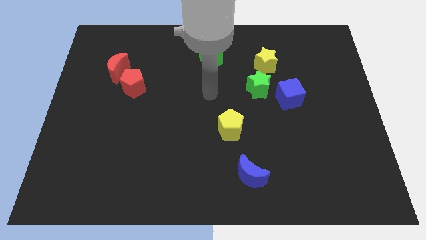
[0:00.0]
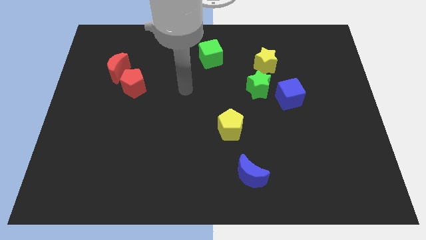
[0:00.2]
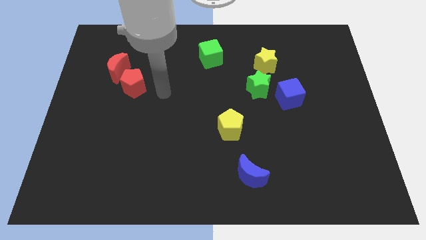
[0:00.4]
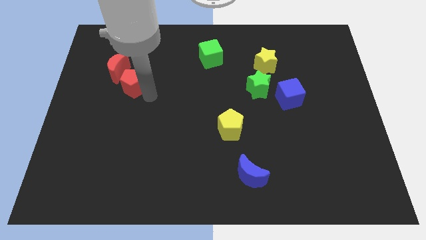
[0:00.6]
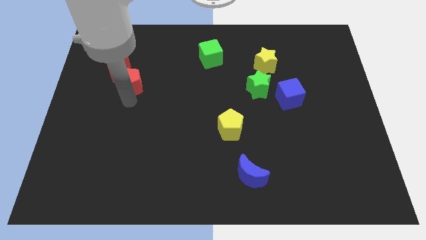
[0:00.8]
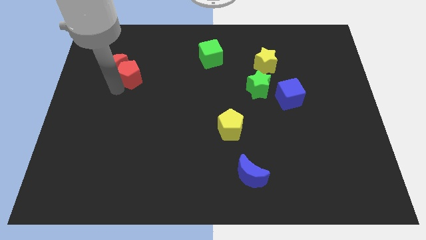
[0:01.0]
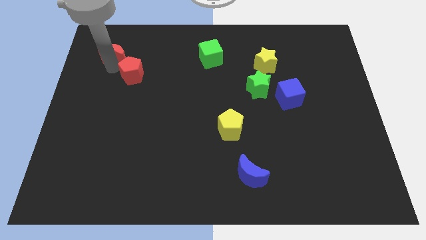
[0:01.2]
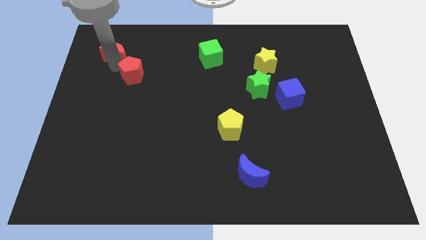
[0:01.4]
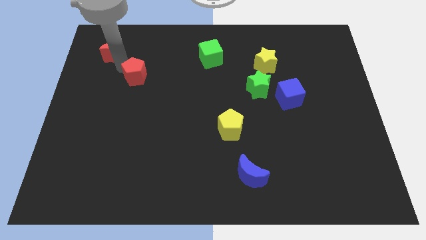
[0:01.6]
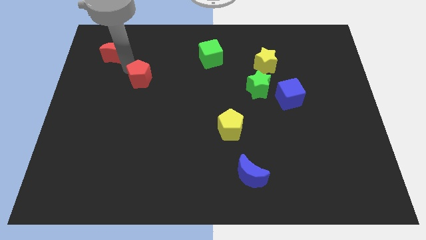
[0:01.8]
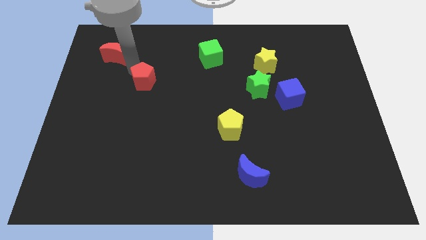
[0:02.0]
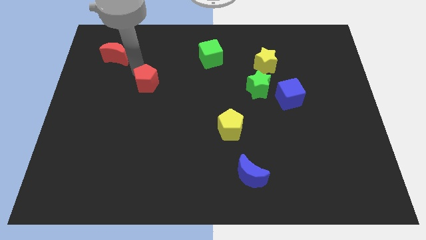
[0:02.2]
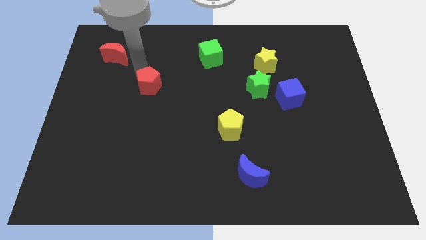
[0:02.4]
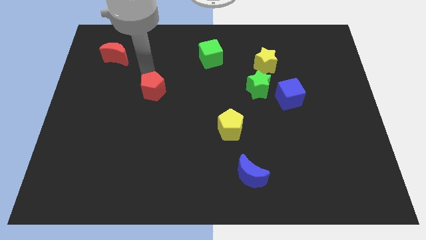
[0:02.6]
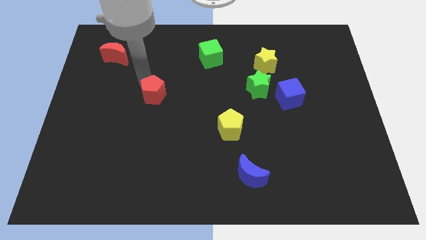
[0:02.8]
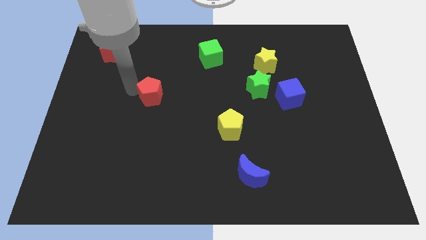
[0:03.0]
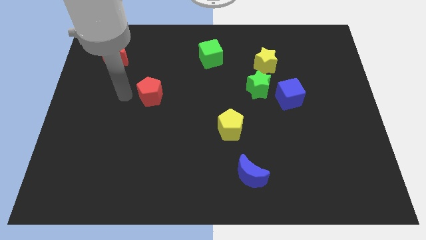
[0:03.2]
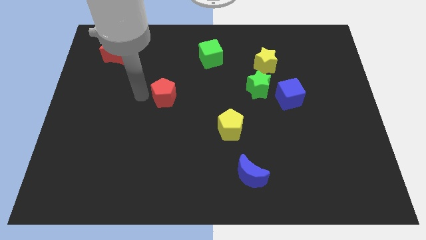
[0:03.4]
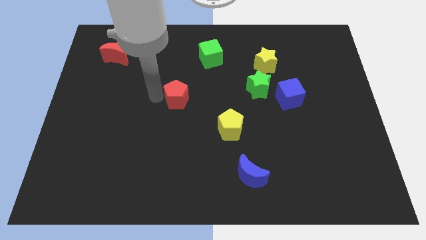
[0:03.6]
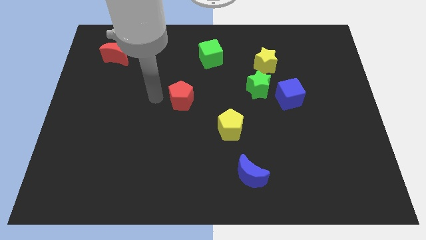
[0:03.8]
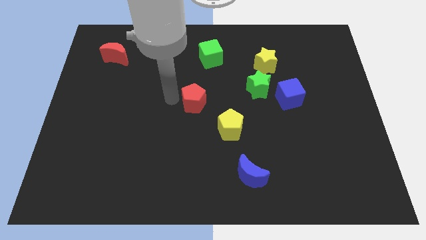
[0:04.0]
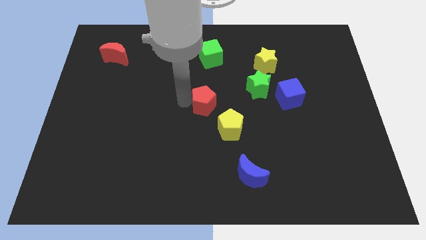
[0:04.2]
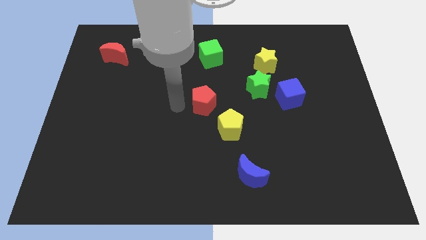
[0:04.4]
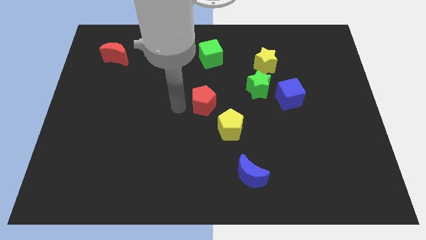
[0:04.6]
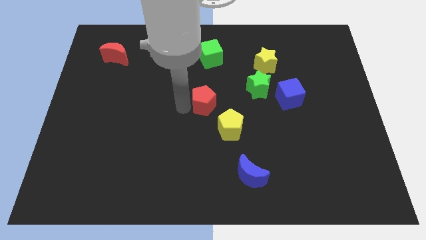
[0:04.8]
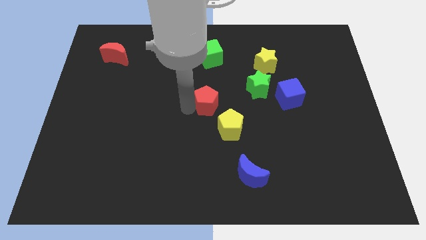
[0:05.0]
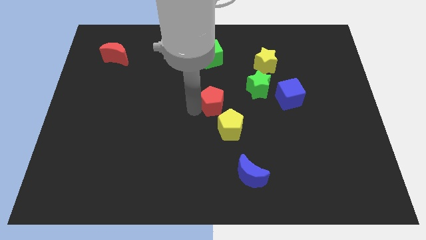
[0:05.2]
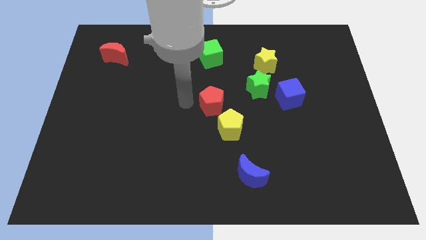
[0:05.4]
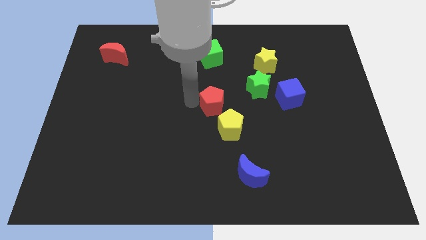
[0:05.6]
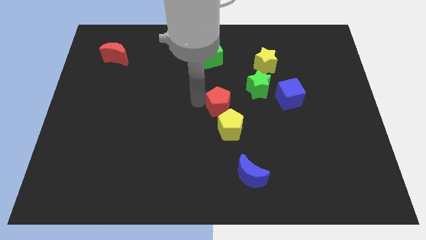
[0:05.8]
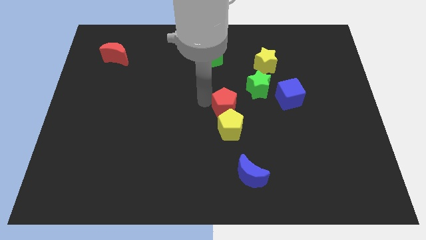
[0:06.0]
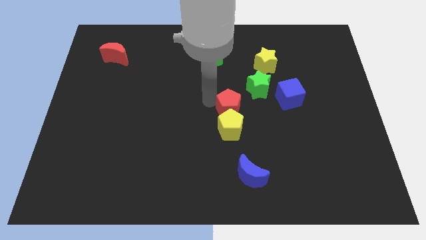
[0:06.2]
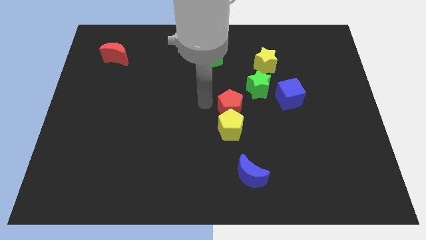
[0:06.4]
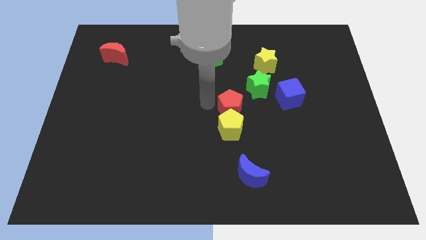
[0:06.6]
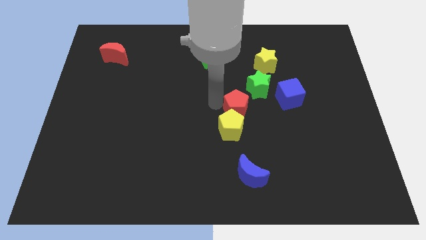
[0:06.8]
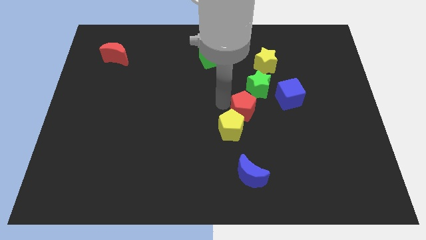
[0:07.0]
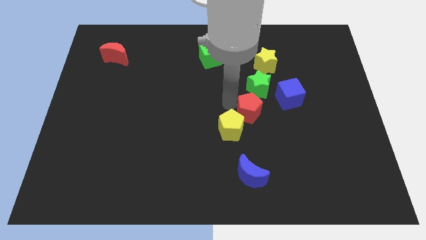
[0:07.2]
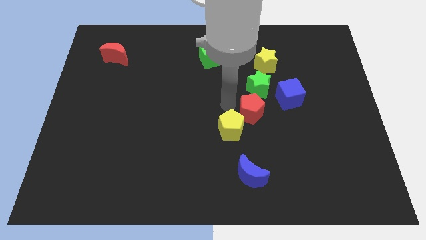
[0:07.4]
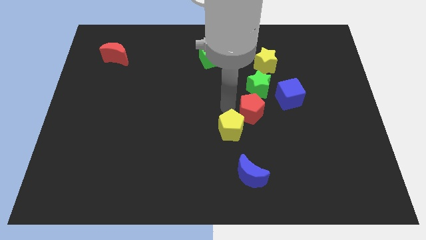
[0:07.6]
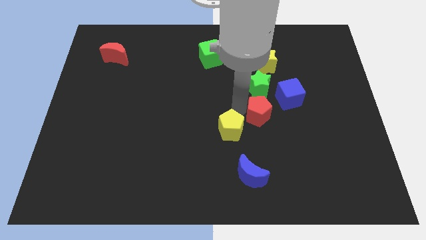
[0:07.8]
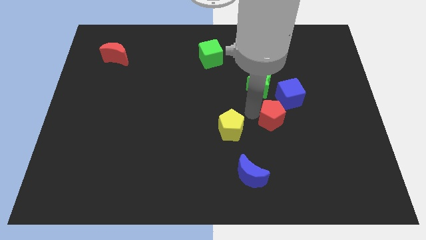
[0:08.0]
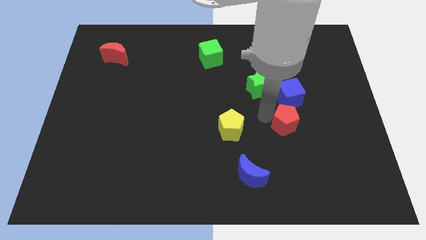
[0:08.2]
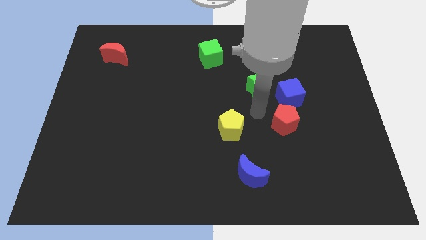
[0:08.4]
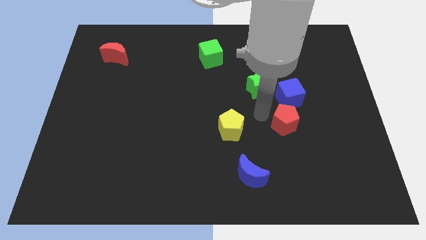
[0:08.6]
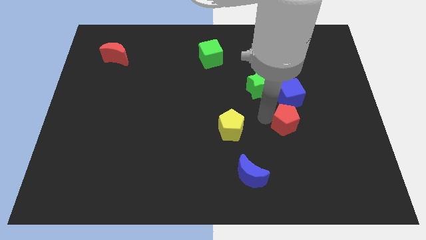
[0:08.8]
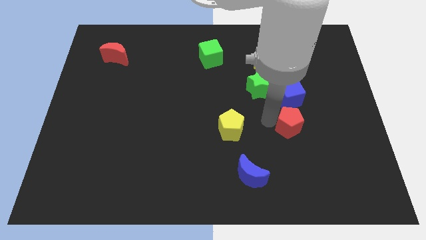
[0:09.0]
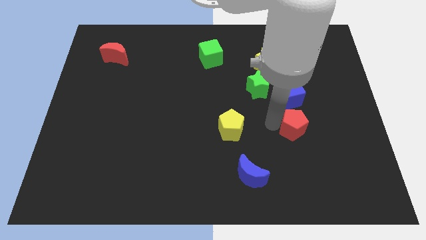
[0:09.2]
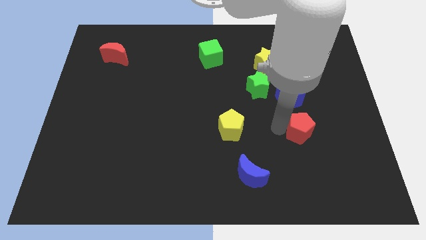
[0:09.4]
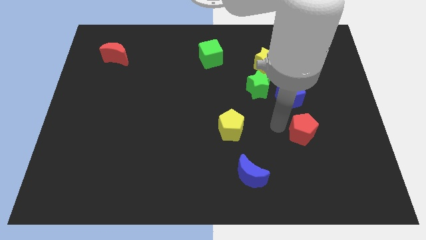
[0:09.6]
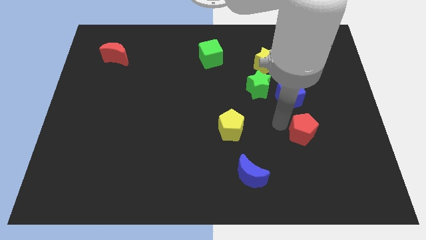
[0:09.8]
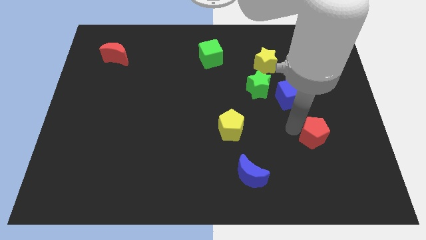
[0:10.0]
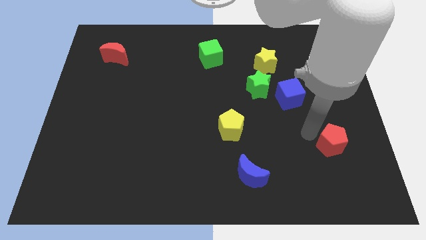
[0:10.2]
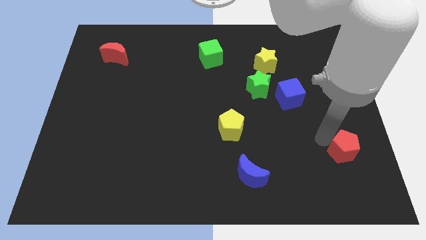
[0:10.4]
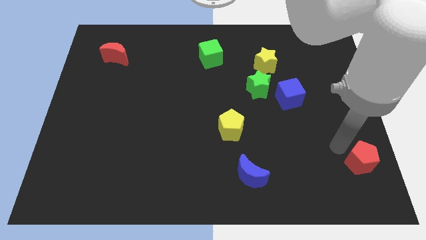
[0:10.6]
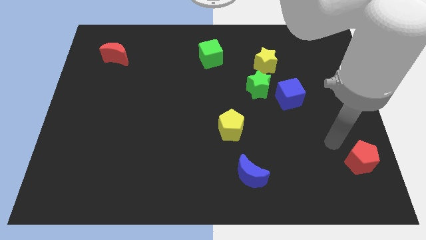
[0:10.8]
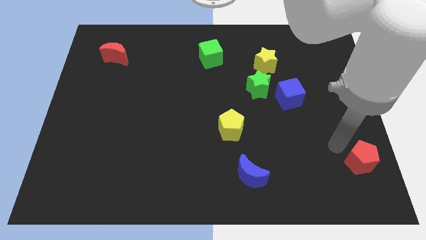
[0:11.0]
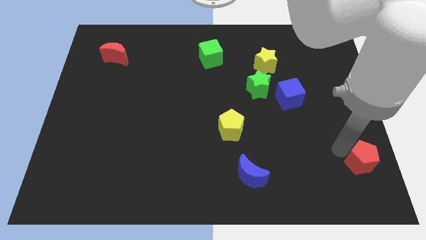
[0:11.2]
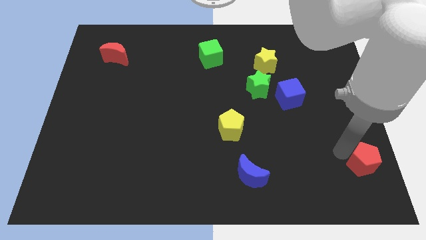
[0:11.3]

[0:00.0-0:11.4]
put the red pentagon to the lower right corner

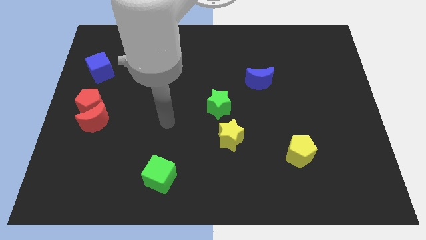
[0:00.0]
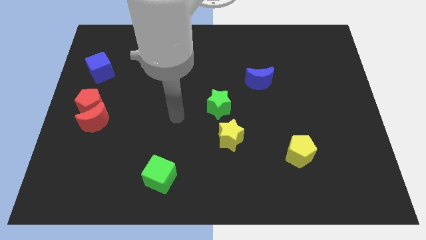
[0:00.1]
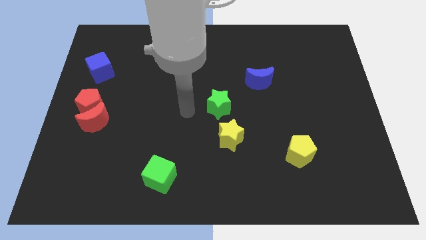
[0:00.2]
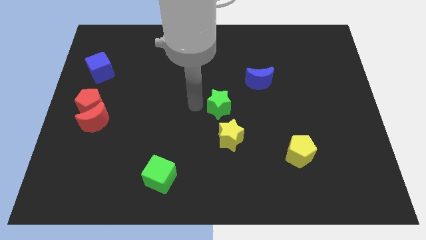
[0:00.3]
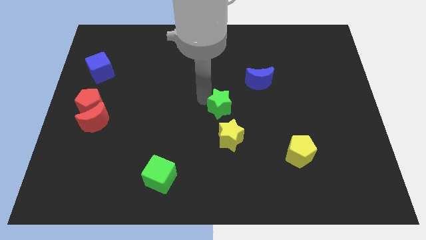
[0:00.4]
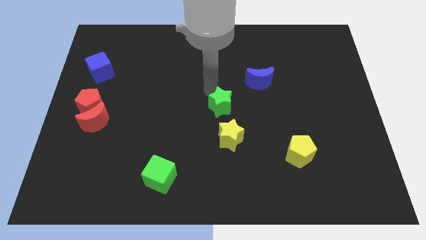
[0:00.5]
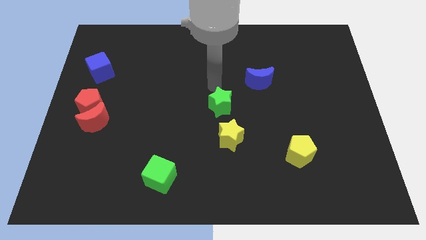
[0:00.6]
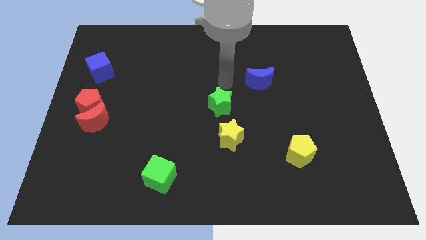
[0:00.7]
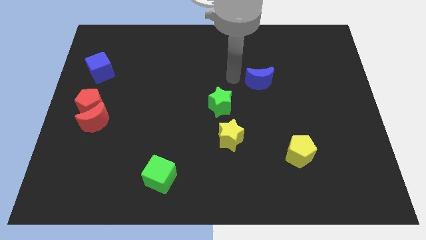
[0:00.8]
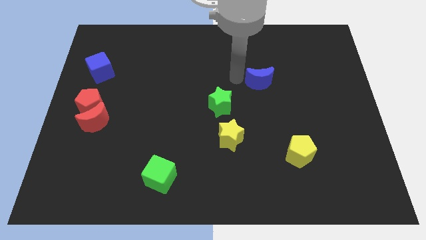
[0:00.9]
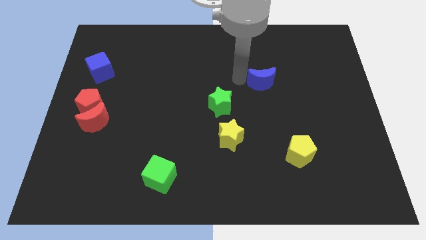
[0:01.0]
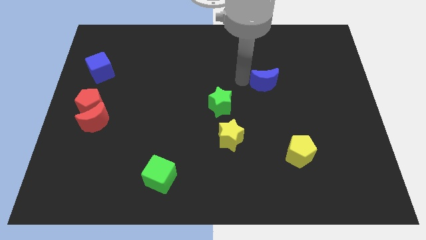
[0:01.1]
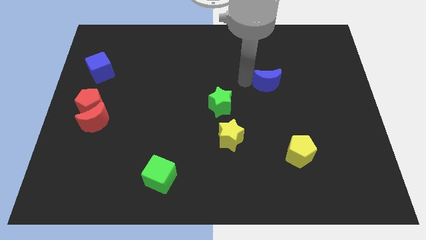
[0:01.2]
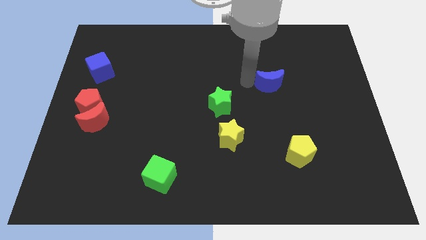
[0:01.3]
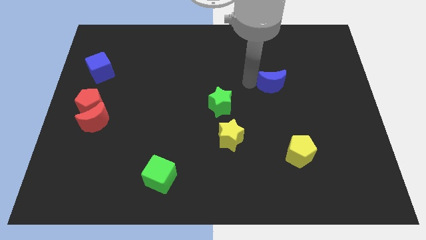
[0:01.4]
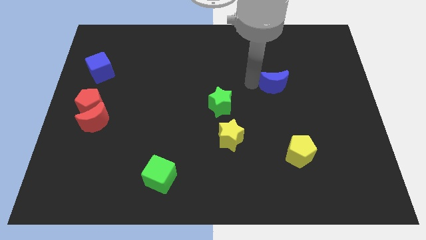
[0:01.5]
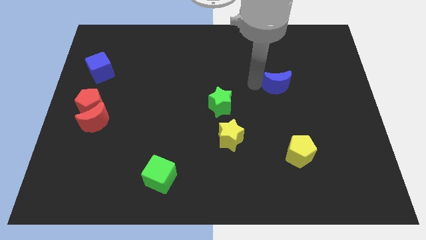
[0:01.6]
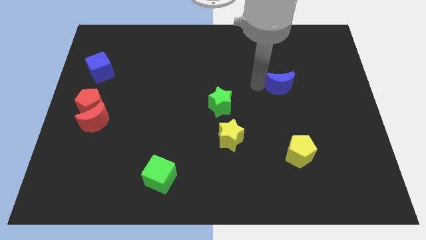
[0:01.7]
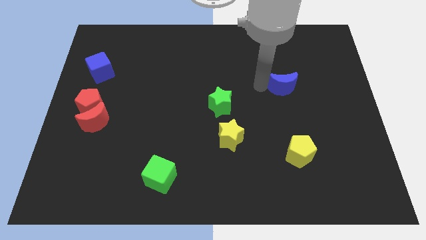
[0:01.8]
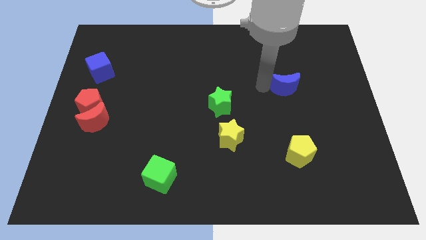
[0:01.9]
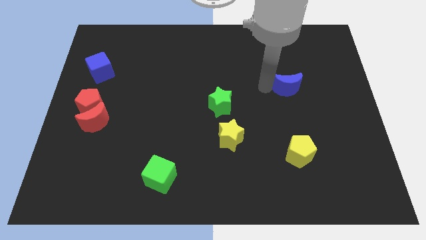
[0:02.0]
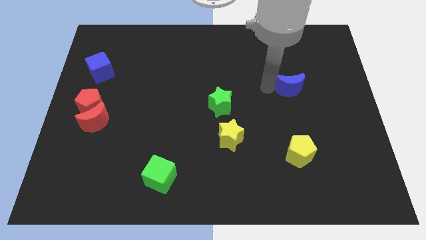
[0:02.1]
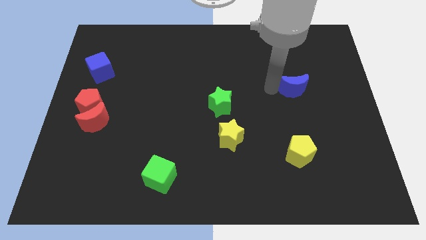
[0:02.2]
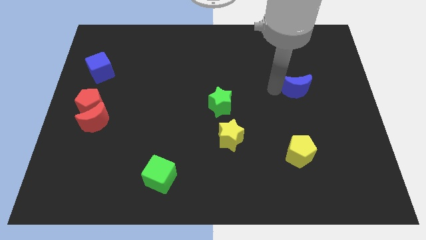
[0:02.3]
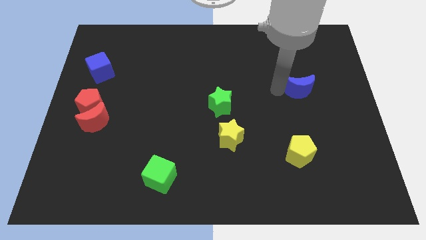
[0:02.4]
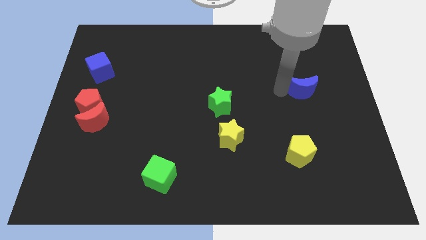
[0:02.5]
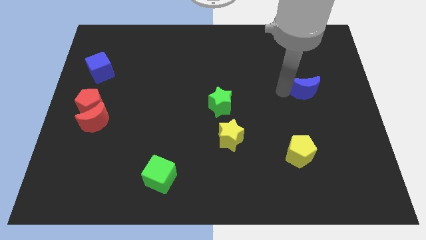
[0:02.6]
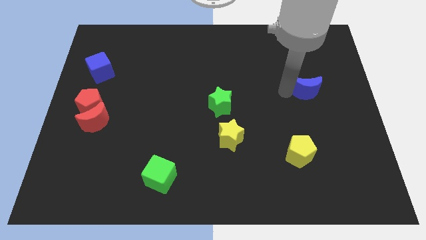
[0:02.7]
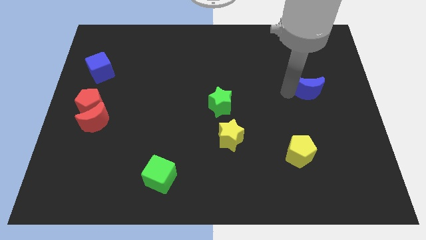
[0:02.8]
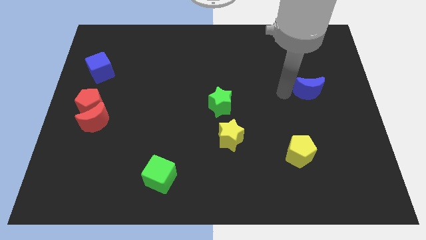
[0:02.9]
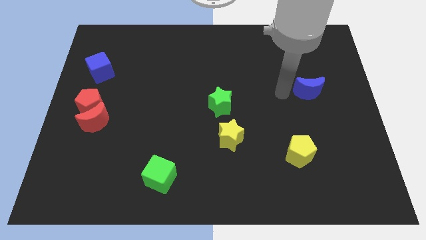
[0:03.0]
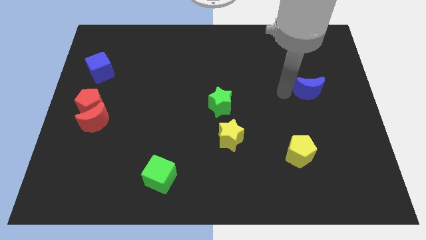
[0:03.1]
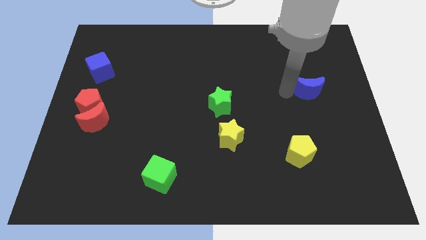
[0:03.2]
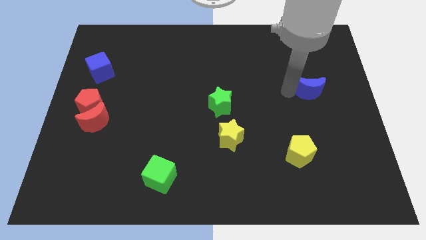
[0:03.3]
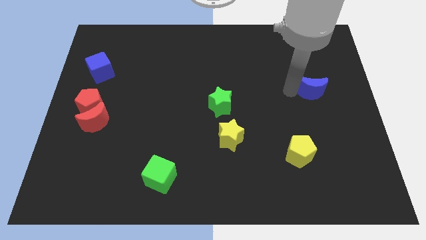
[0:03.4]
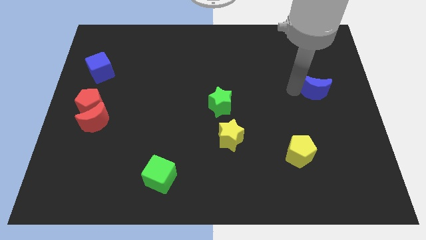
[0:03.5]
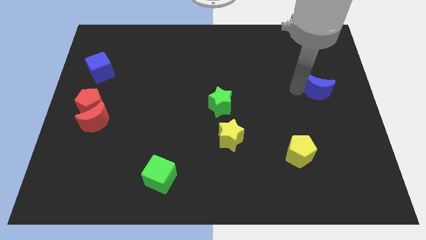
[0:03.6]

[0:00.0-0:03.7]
slide the blue moon to the right side of the board
